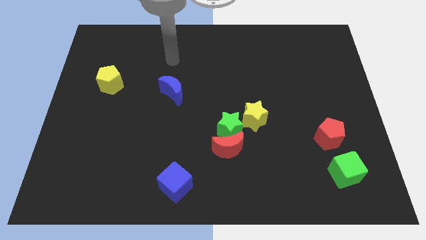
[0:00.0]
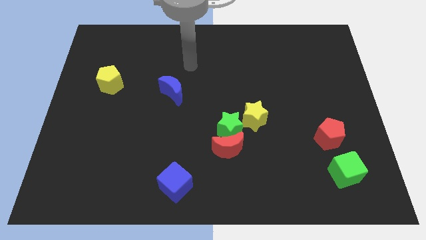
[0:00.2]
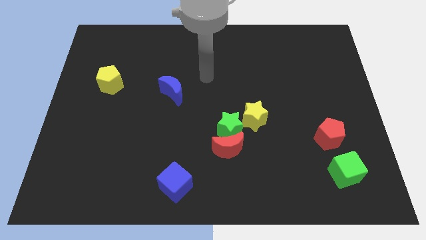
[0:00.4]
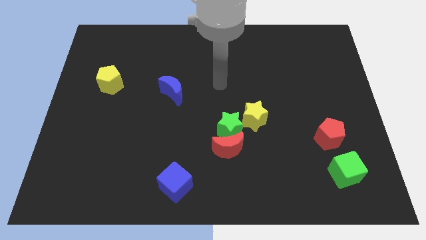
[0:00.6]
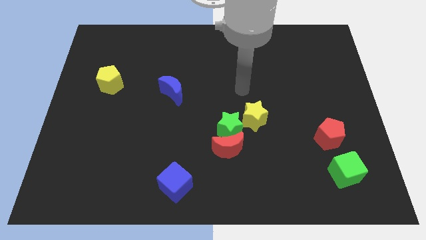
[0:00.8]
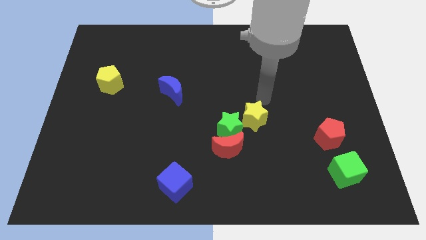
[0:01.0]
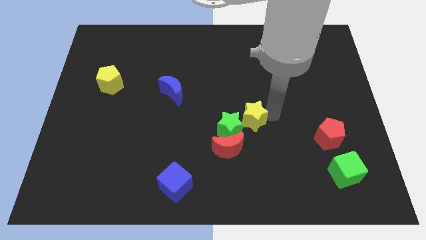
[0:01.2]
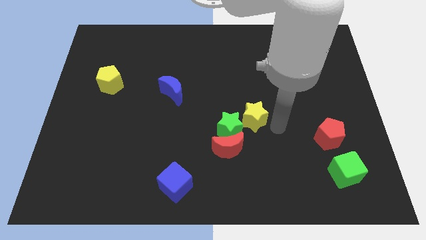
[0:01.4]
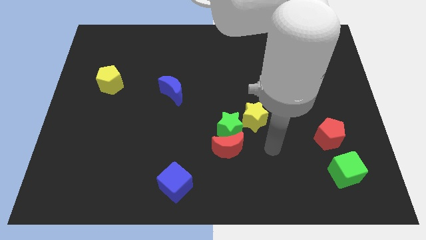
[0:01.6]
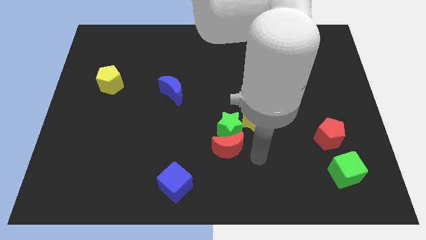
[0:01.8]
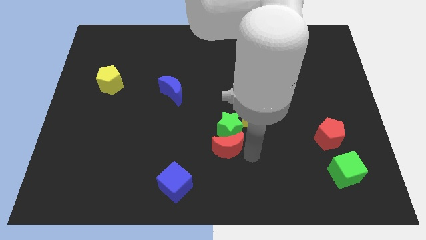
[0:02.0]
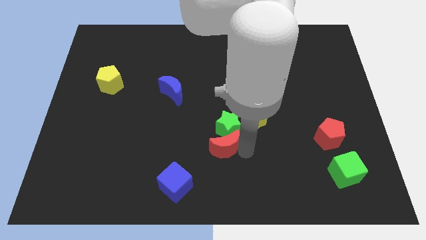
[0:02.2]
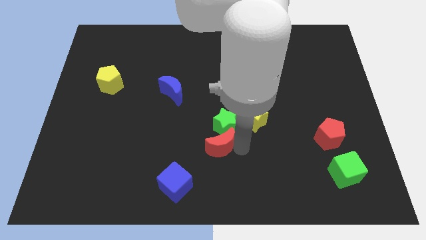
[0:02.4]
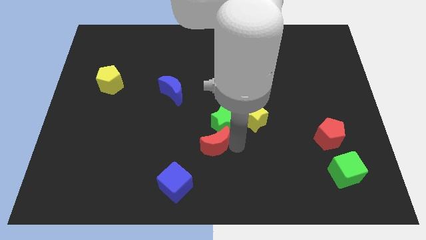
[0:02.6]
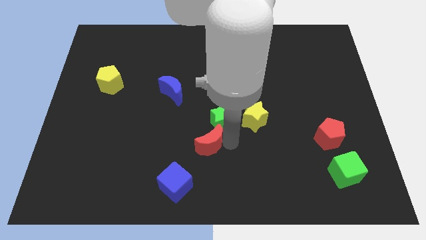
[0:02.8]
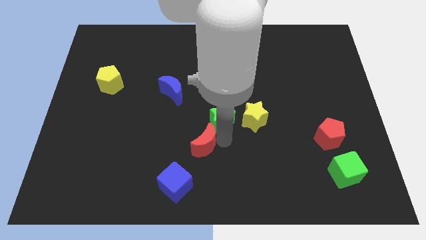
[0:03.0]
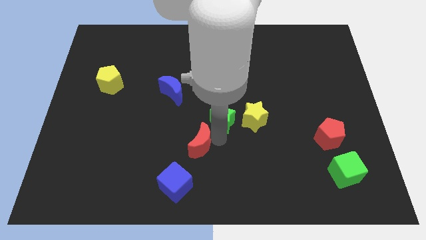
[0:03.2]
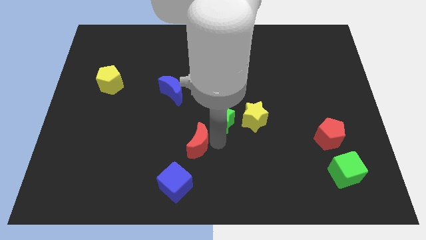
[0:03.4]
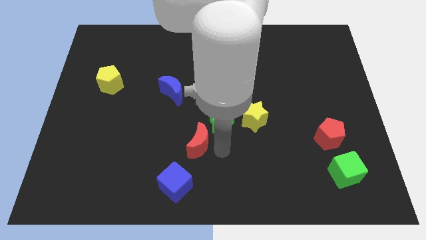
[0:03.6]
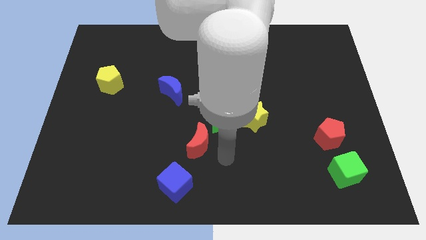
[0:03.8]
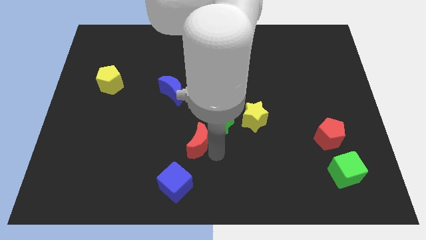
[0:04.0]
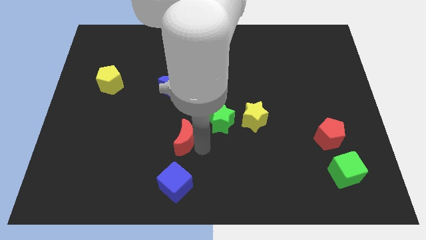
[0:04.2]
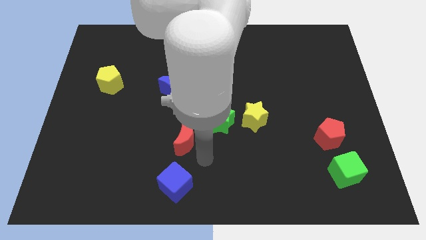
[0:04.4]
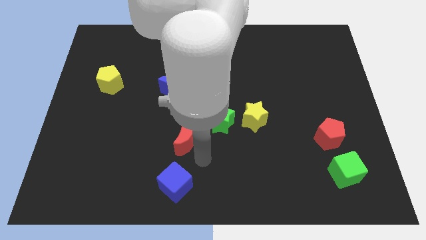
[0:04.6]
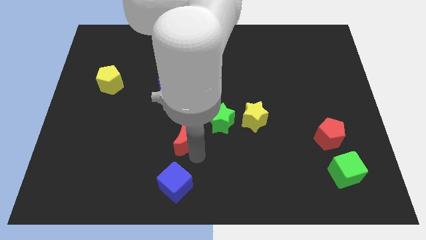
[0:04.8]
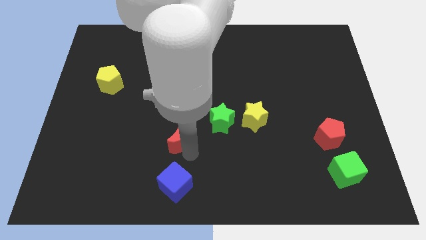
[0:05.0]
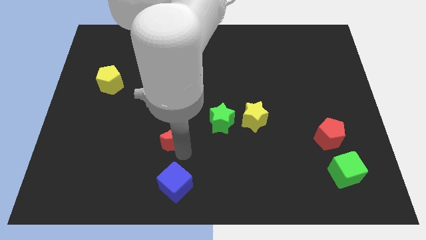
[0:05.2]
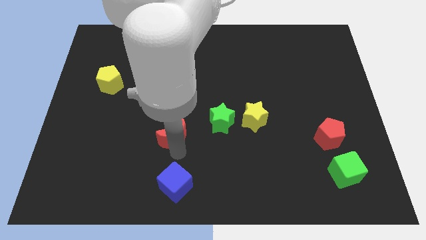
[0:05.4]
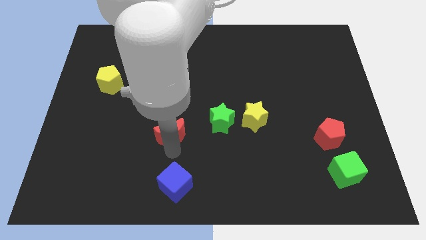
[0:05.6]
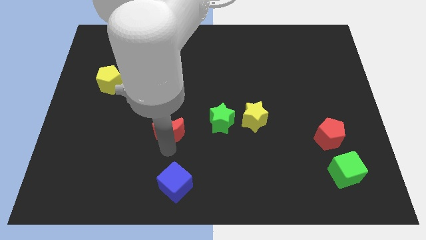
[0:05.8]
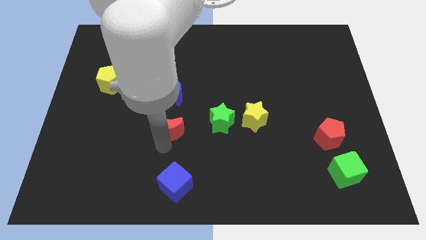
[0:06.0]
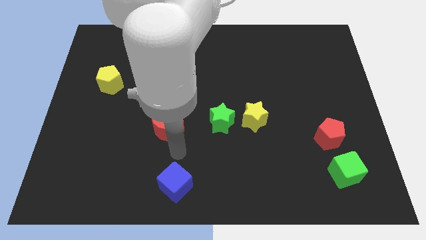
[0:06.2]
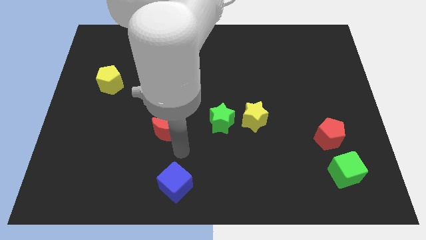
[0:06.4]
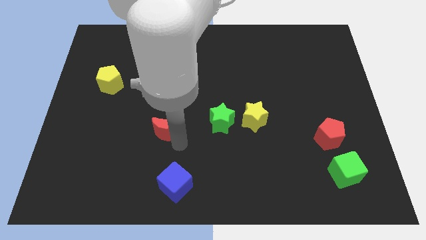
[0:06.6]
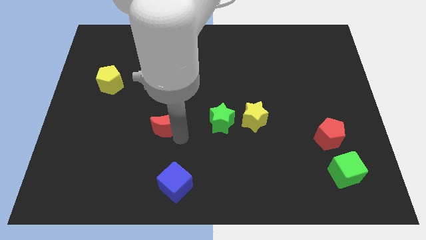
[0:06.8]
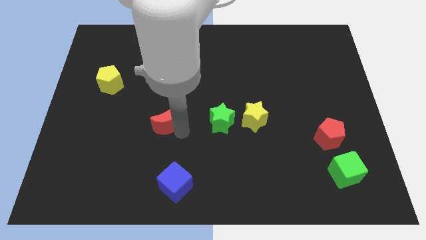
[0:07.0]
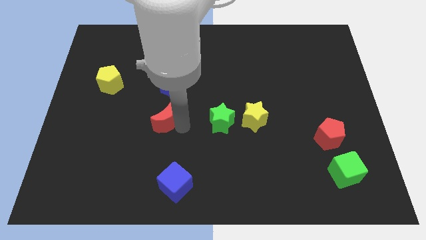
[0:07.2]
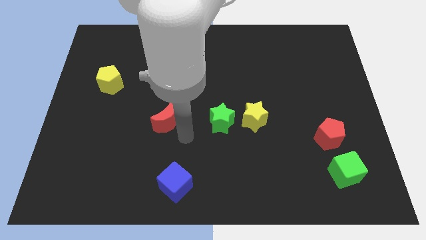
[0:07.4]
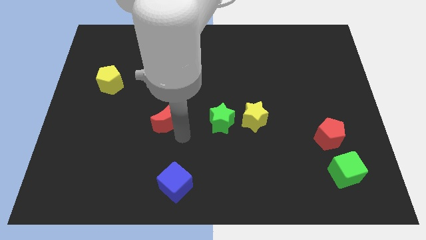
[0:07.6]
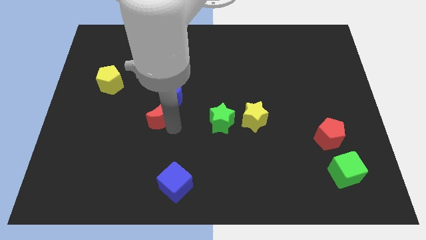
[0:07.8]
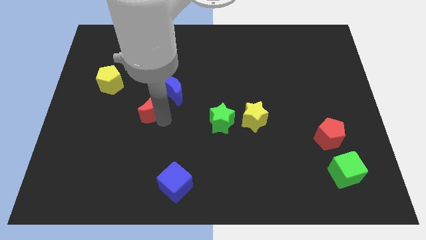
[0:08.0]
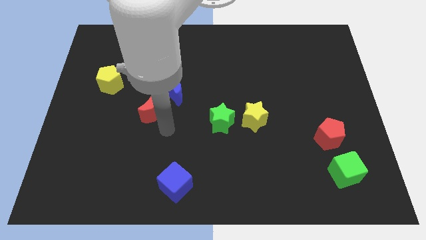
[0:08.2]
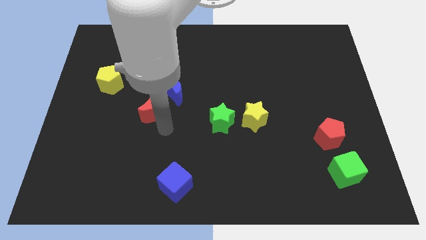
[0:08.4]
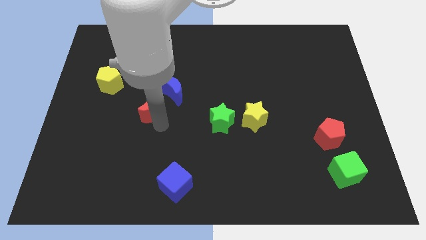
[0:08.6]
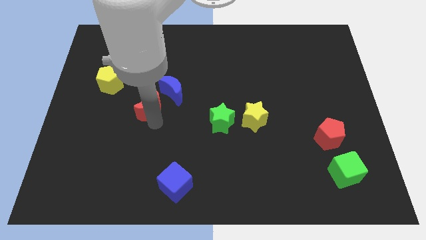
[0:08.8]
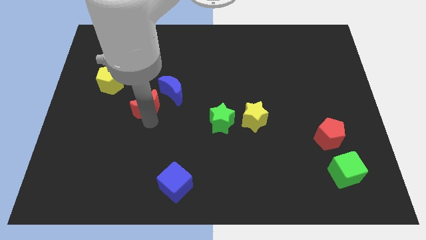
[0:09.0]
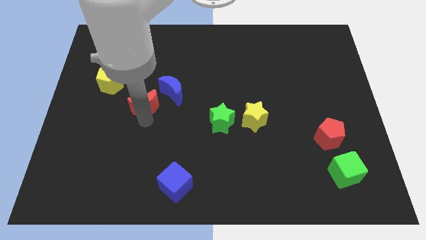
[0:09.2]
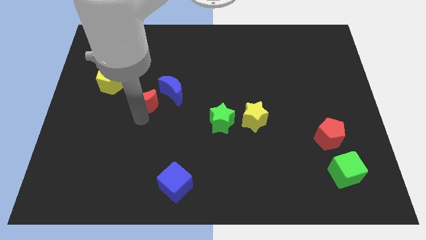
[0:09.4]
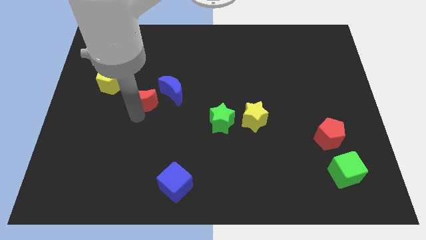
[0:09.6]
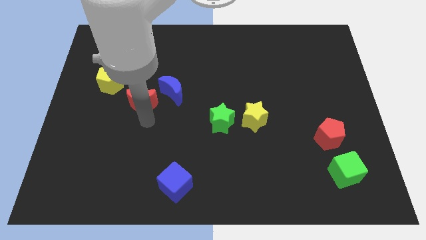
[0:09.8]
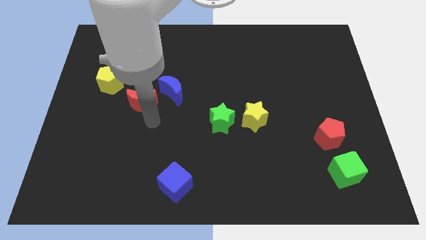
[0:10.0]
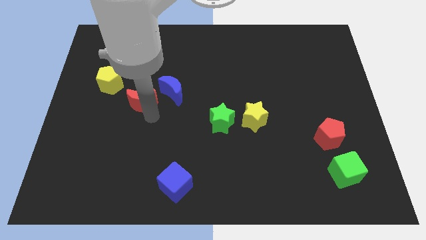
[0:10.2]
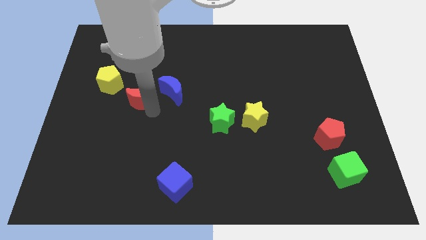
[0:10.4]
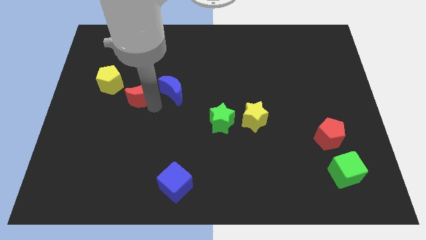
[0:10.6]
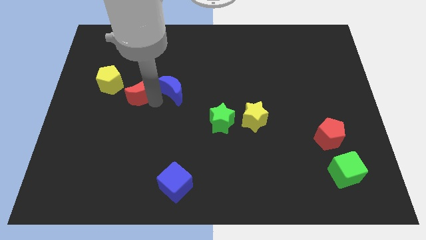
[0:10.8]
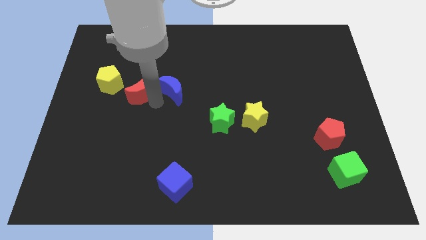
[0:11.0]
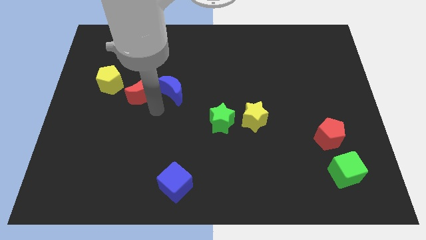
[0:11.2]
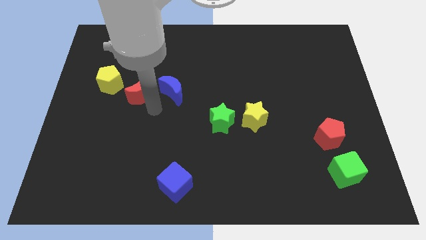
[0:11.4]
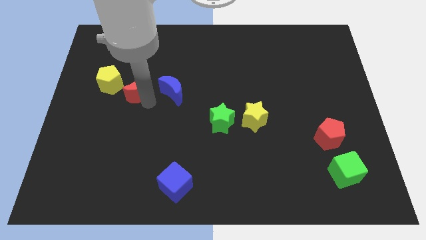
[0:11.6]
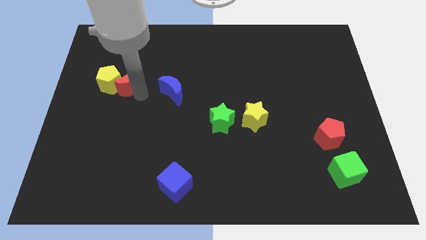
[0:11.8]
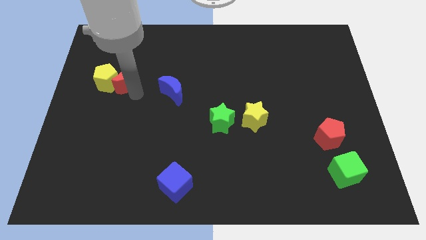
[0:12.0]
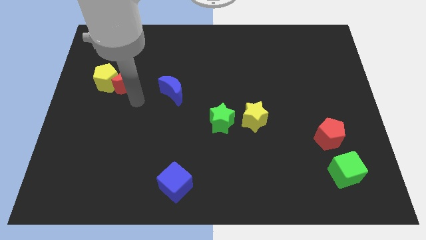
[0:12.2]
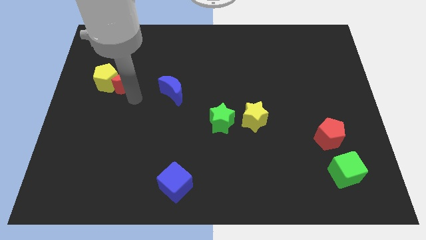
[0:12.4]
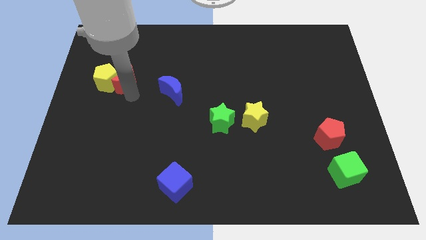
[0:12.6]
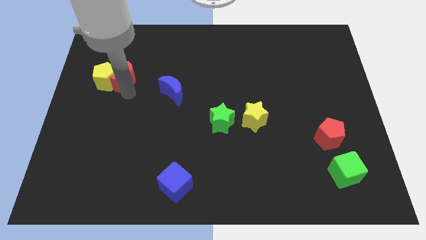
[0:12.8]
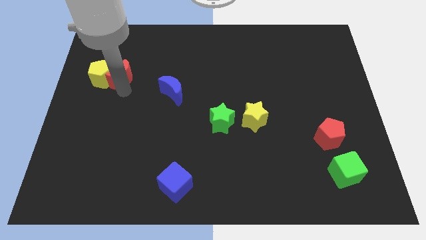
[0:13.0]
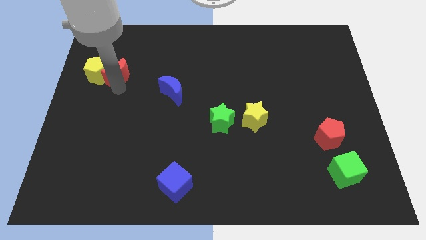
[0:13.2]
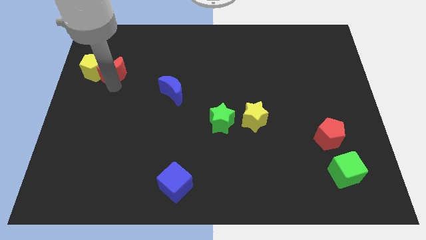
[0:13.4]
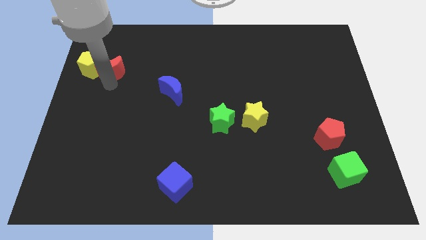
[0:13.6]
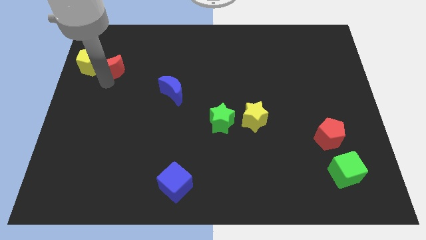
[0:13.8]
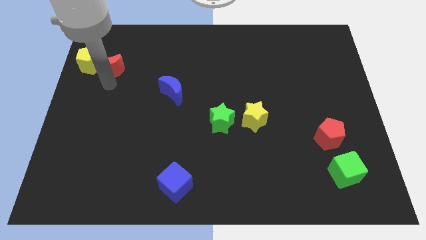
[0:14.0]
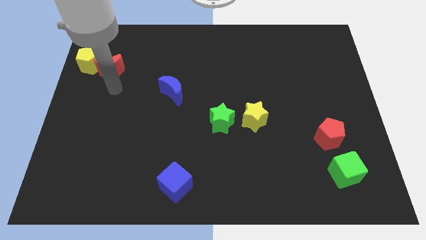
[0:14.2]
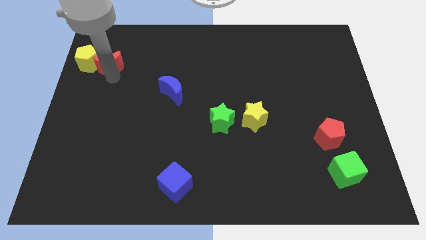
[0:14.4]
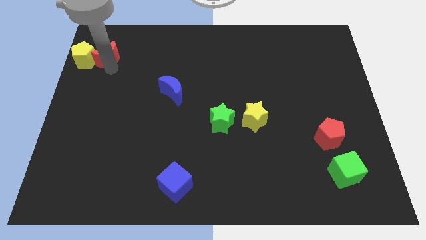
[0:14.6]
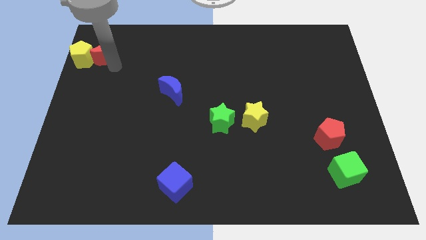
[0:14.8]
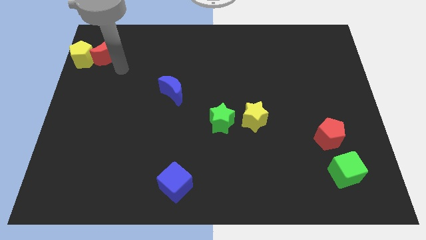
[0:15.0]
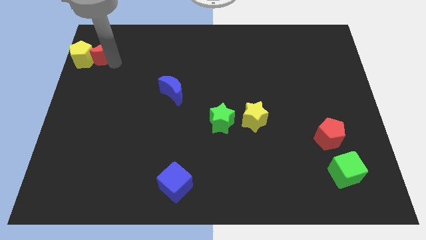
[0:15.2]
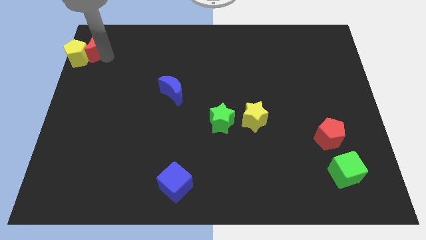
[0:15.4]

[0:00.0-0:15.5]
put the red moon to the upper left corner
